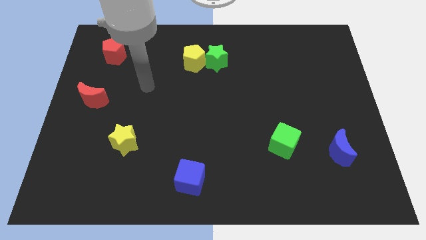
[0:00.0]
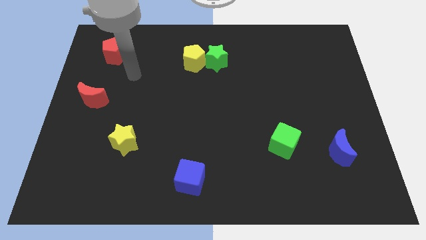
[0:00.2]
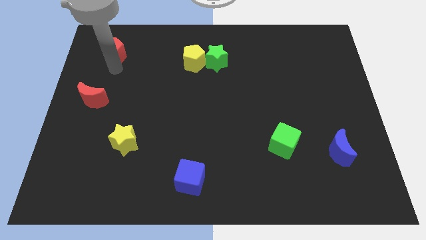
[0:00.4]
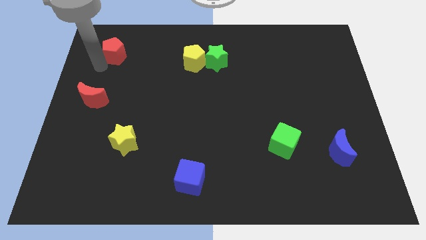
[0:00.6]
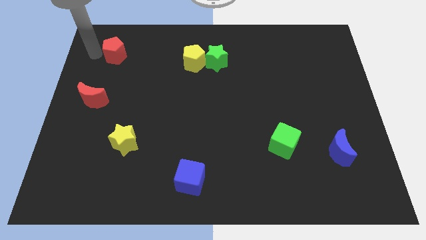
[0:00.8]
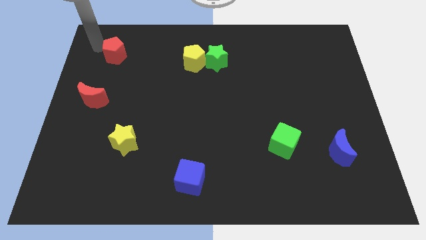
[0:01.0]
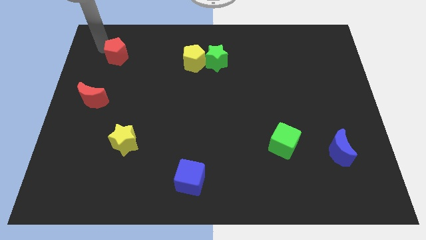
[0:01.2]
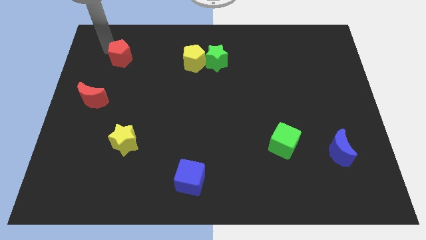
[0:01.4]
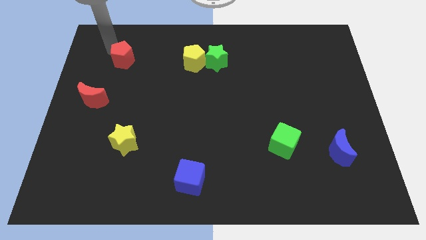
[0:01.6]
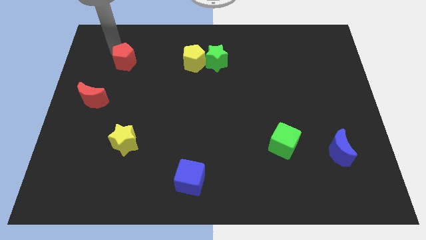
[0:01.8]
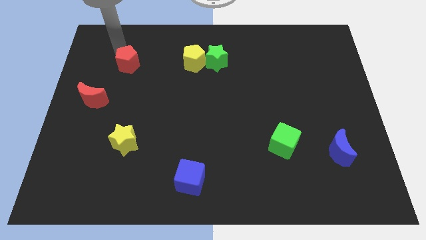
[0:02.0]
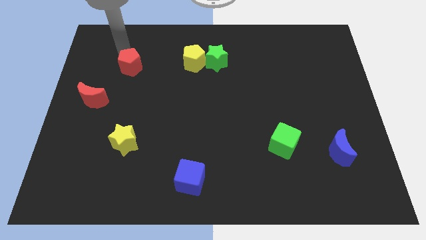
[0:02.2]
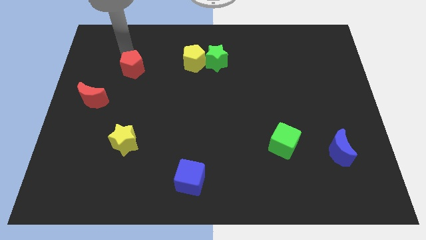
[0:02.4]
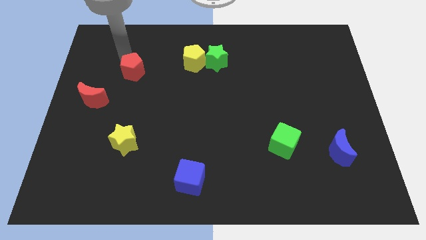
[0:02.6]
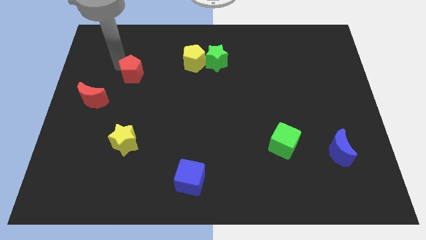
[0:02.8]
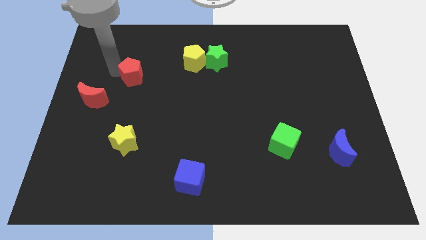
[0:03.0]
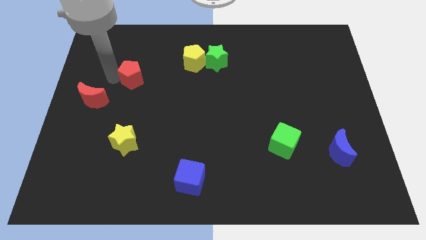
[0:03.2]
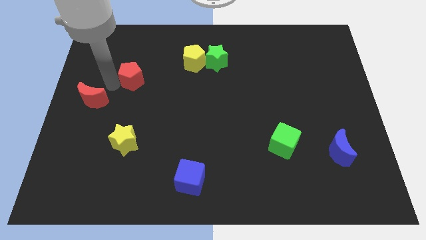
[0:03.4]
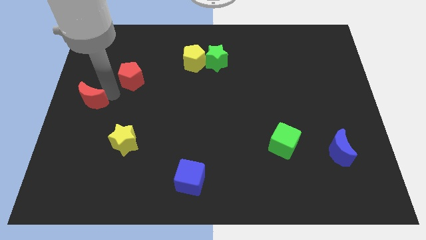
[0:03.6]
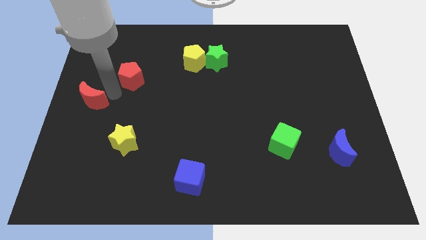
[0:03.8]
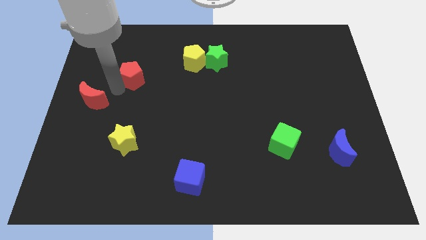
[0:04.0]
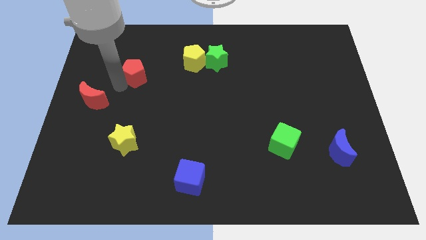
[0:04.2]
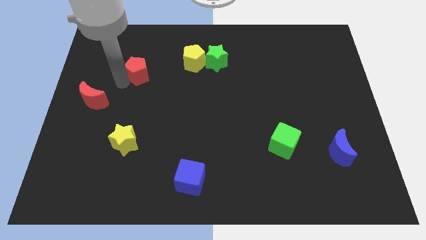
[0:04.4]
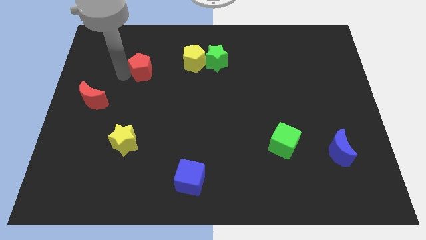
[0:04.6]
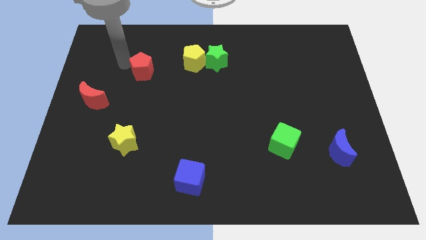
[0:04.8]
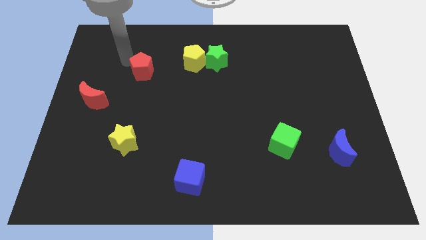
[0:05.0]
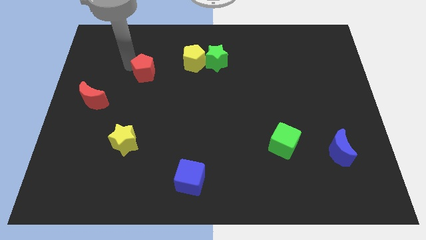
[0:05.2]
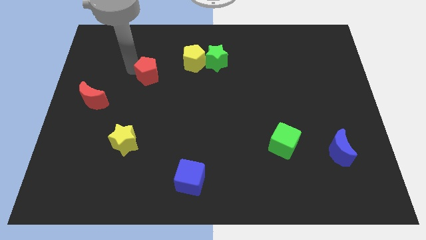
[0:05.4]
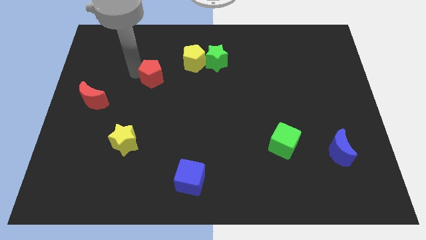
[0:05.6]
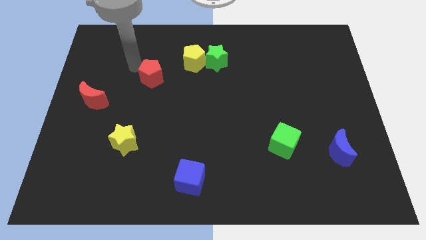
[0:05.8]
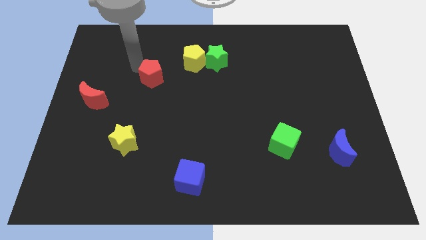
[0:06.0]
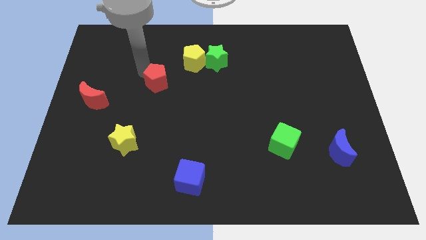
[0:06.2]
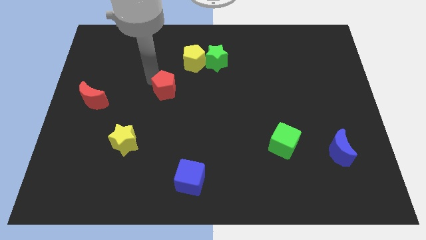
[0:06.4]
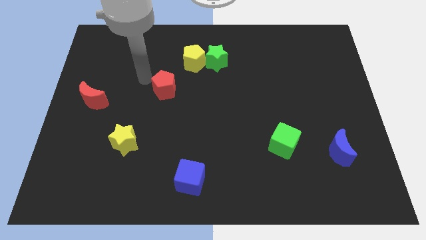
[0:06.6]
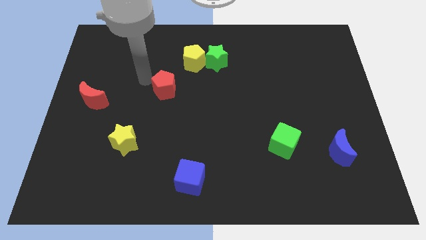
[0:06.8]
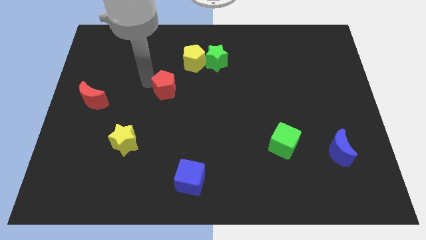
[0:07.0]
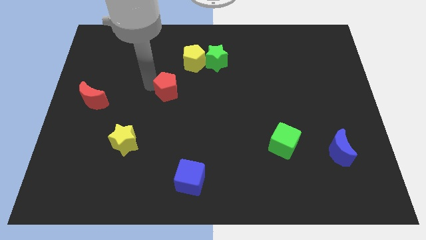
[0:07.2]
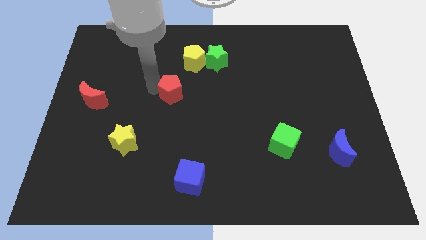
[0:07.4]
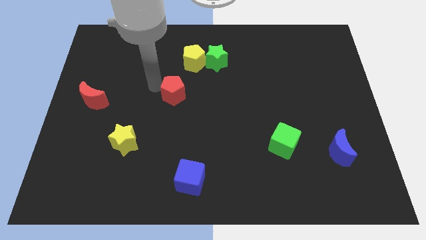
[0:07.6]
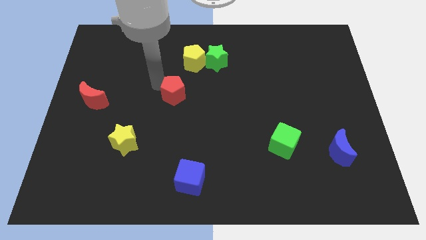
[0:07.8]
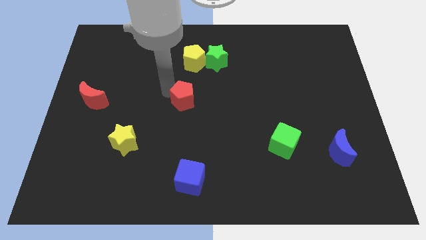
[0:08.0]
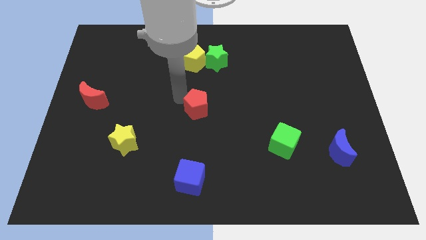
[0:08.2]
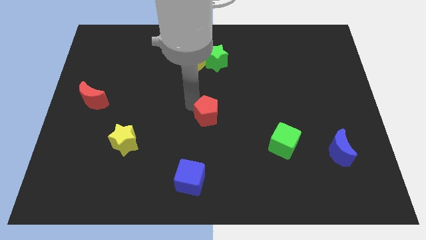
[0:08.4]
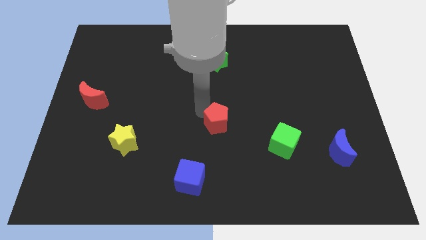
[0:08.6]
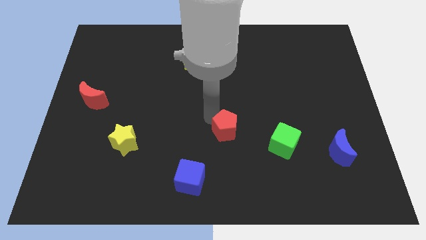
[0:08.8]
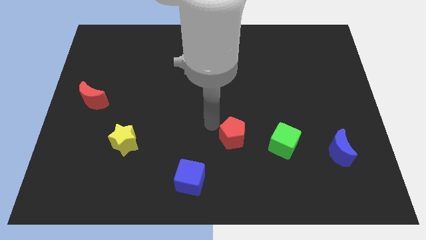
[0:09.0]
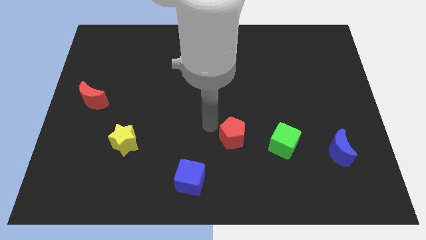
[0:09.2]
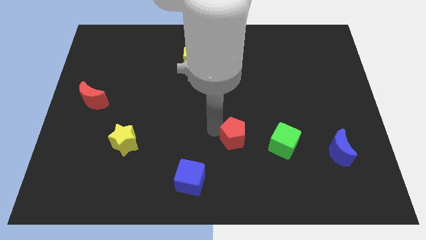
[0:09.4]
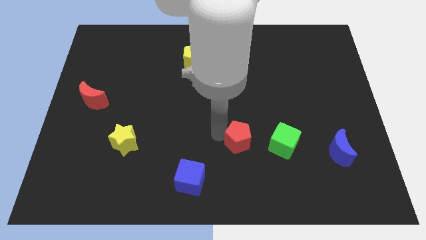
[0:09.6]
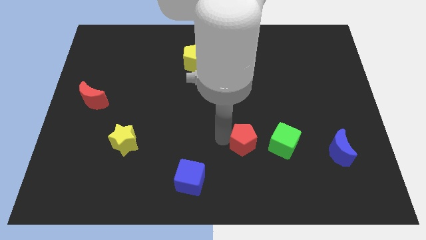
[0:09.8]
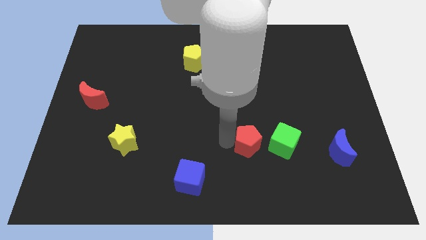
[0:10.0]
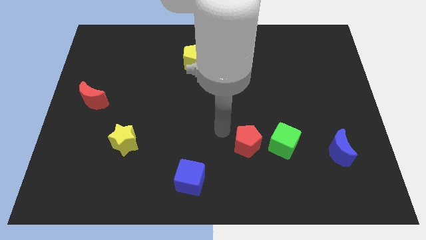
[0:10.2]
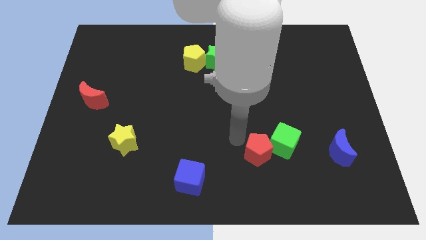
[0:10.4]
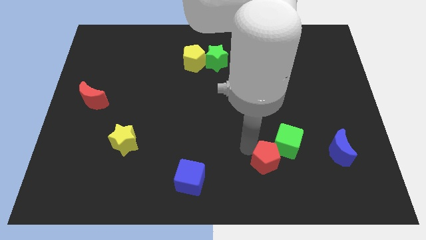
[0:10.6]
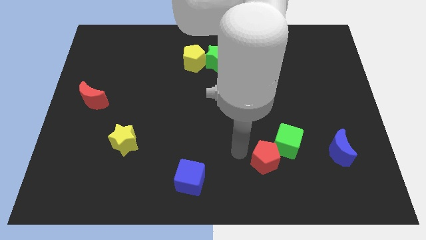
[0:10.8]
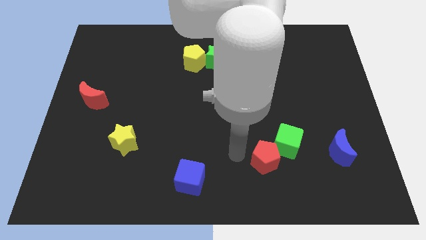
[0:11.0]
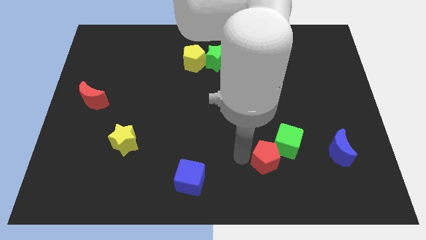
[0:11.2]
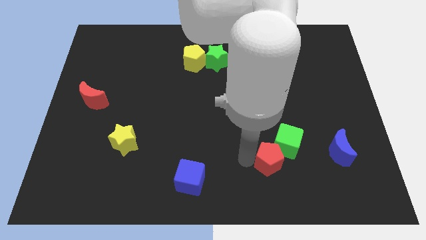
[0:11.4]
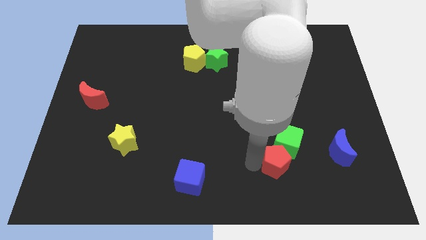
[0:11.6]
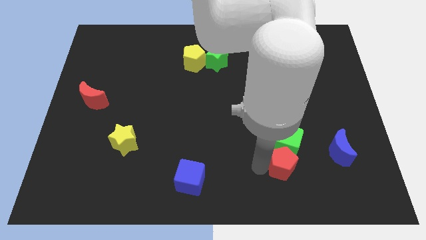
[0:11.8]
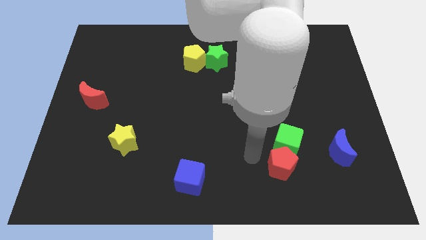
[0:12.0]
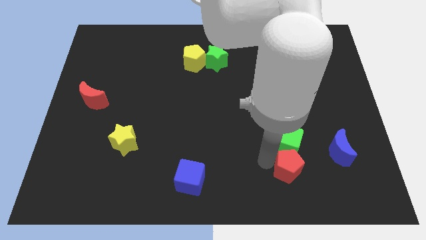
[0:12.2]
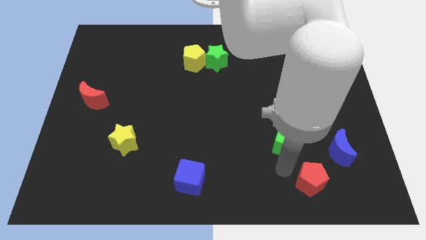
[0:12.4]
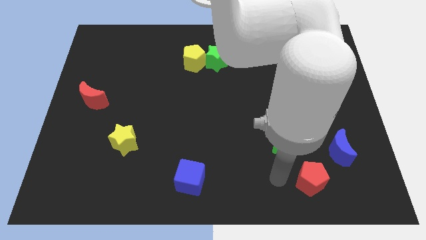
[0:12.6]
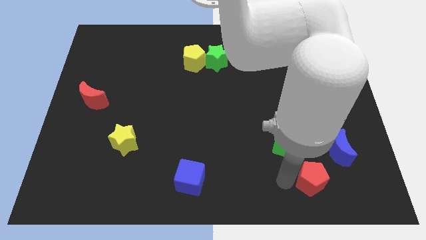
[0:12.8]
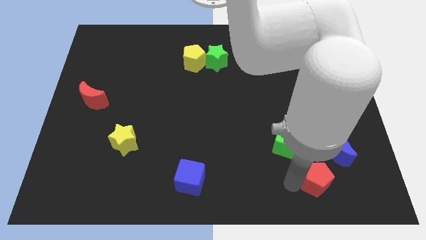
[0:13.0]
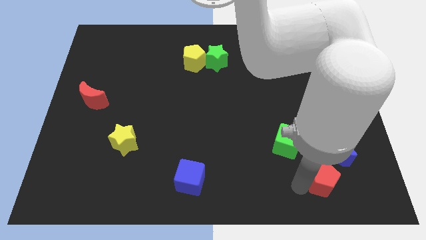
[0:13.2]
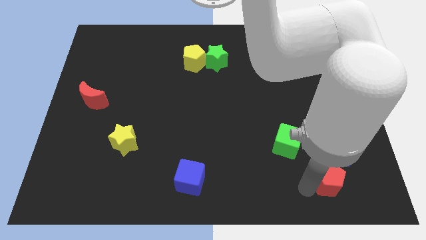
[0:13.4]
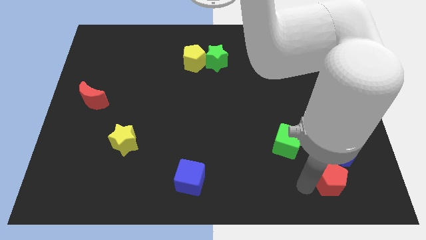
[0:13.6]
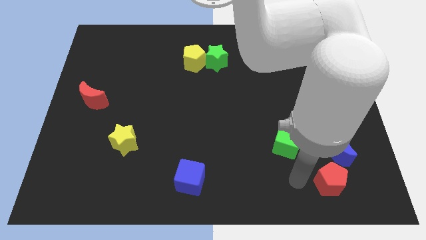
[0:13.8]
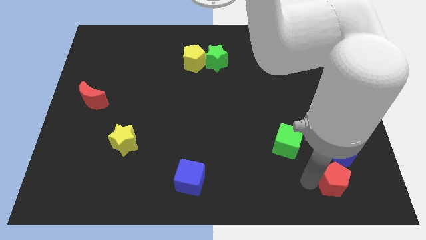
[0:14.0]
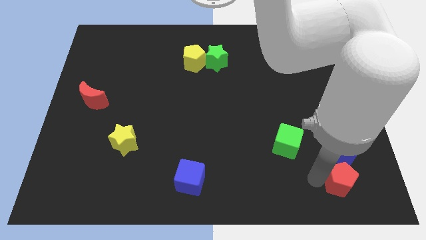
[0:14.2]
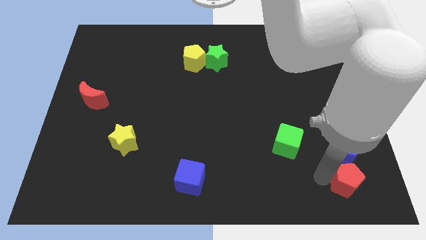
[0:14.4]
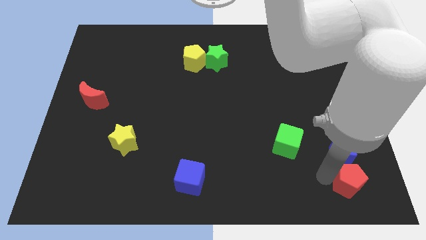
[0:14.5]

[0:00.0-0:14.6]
put the red pentagon to the lower right corner
